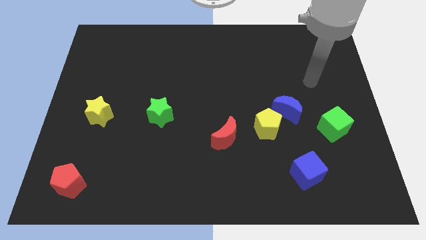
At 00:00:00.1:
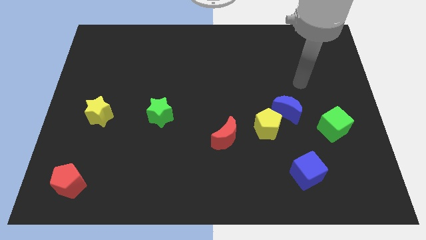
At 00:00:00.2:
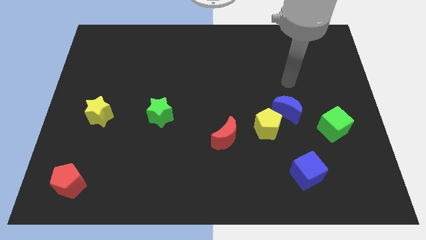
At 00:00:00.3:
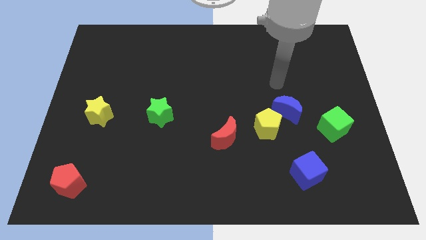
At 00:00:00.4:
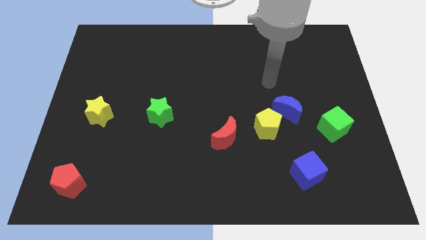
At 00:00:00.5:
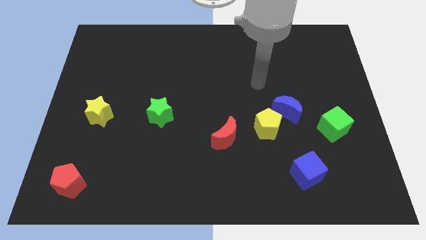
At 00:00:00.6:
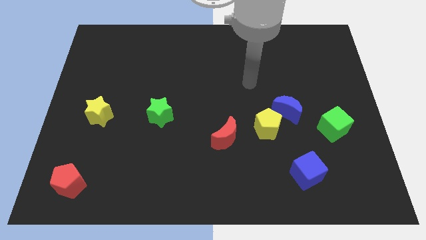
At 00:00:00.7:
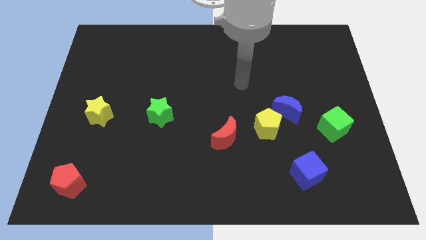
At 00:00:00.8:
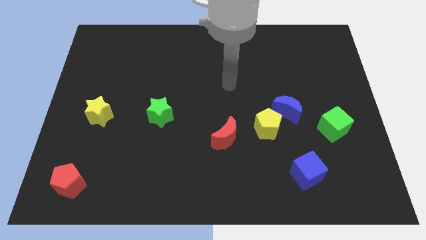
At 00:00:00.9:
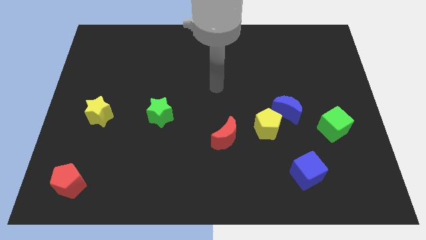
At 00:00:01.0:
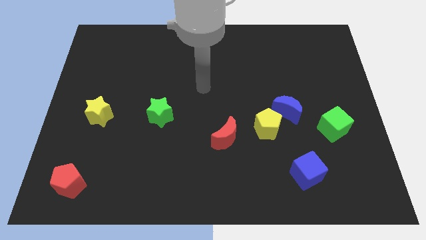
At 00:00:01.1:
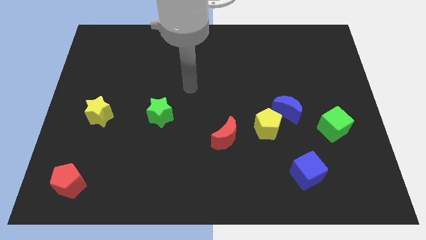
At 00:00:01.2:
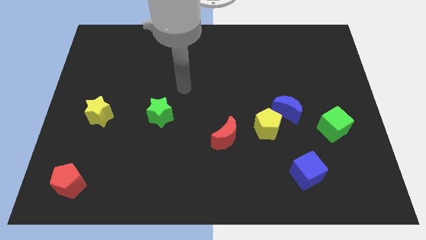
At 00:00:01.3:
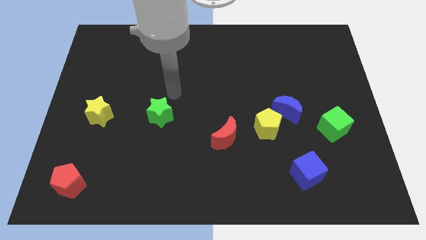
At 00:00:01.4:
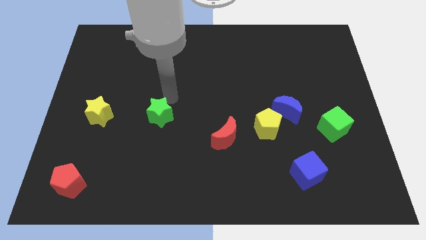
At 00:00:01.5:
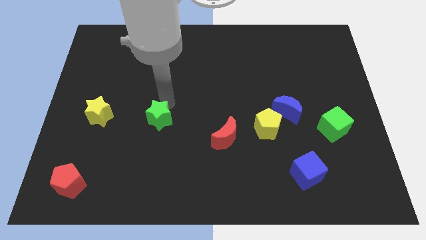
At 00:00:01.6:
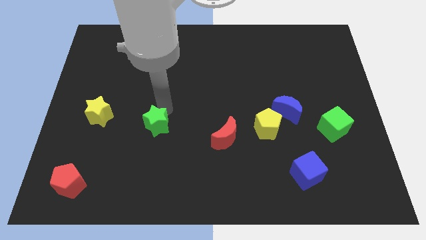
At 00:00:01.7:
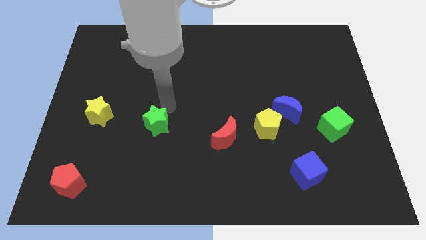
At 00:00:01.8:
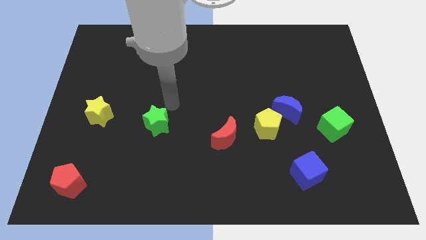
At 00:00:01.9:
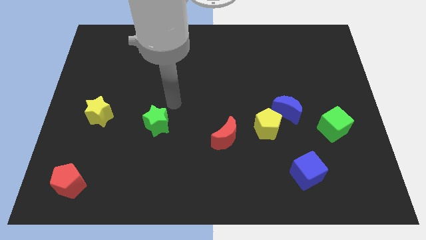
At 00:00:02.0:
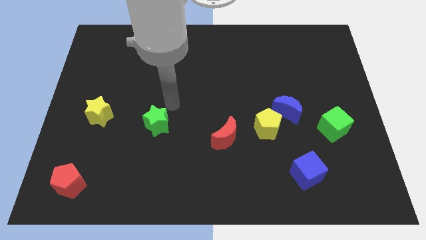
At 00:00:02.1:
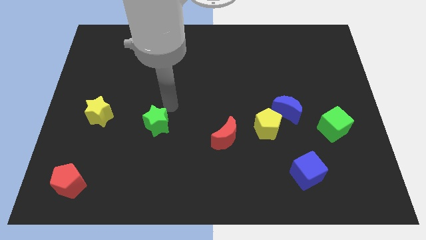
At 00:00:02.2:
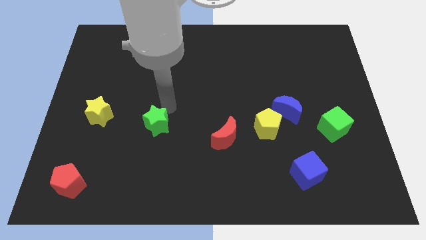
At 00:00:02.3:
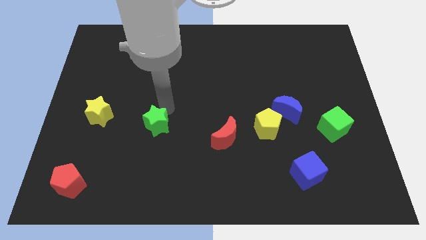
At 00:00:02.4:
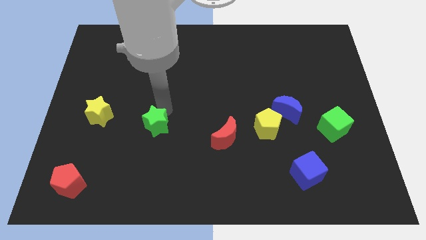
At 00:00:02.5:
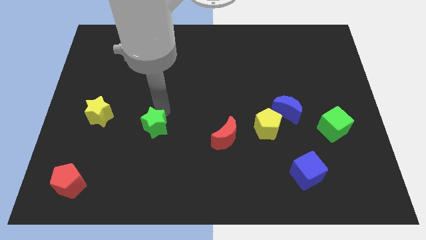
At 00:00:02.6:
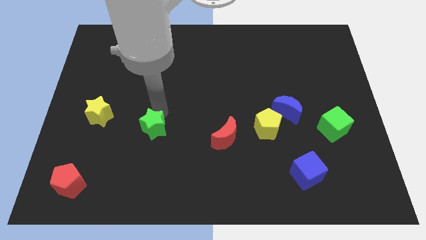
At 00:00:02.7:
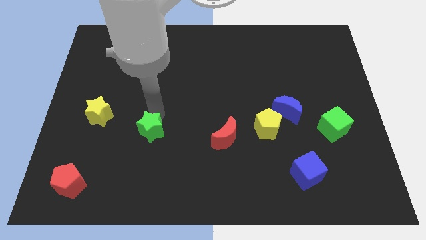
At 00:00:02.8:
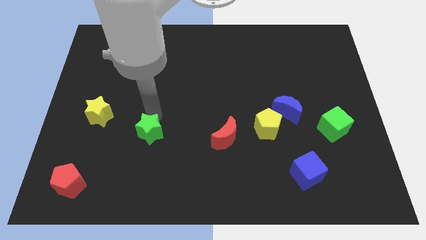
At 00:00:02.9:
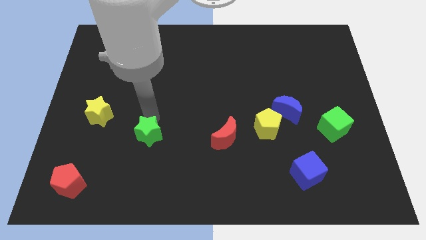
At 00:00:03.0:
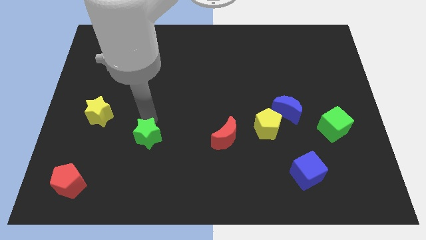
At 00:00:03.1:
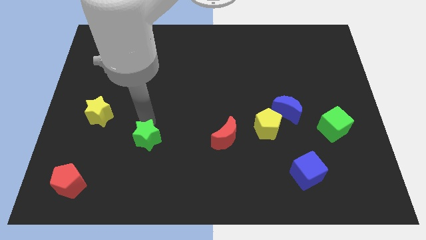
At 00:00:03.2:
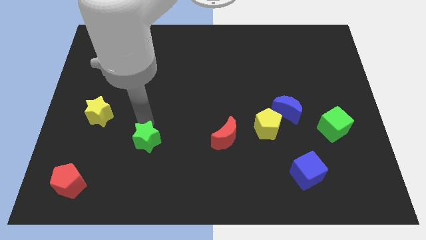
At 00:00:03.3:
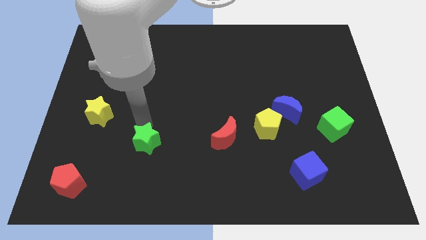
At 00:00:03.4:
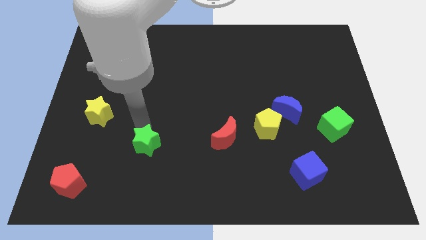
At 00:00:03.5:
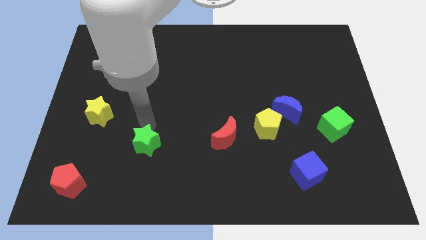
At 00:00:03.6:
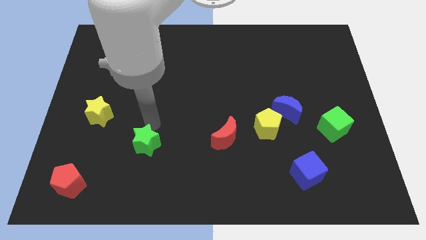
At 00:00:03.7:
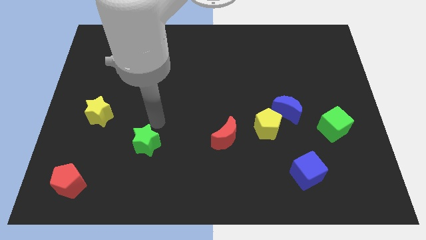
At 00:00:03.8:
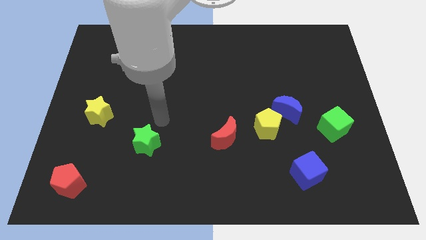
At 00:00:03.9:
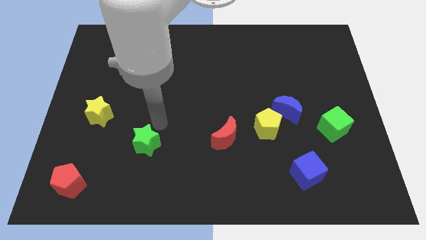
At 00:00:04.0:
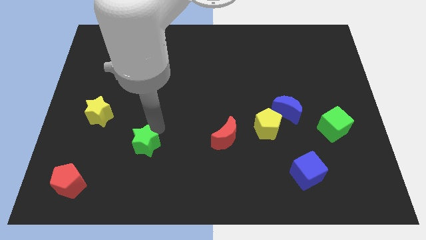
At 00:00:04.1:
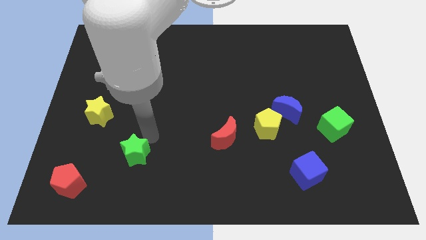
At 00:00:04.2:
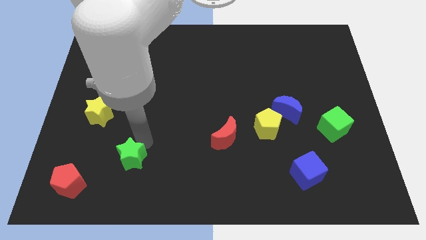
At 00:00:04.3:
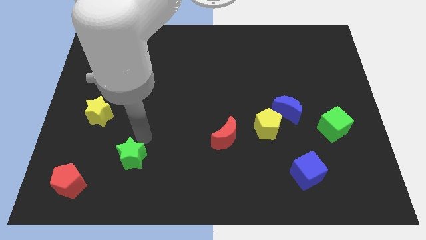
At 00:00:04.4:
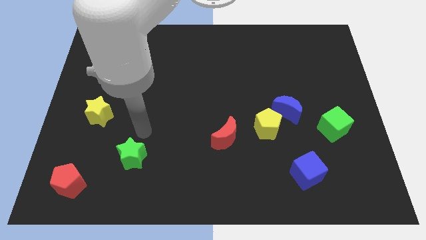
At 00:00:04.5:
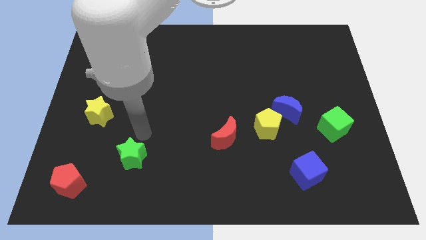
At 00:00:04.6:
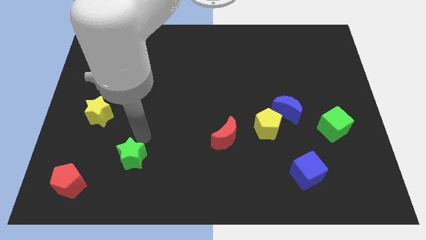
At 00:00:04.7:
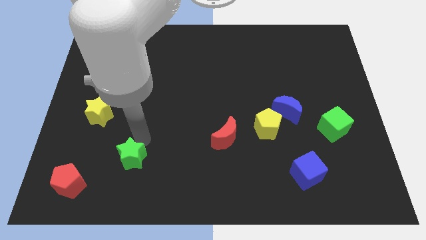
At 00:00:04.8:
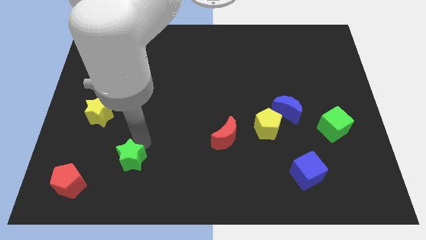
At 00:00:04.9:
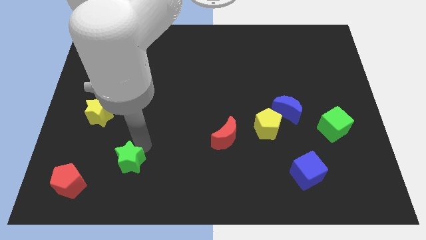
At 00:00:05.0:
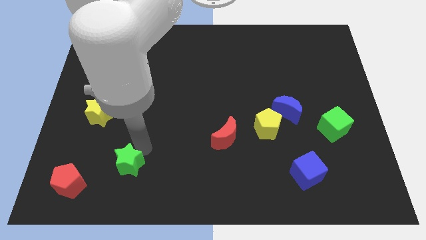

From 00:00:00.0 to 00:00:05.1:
move the green star right of the red pentagon

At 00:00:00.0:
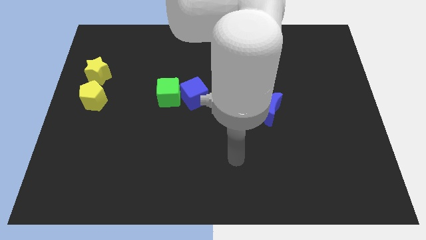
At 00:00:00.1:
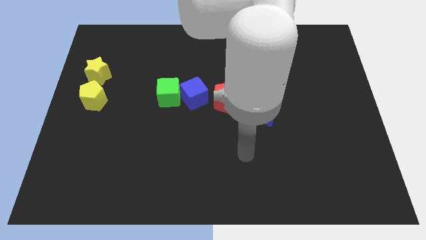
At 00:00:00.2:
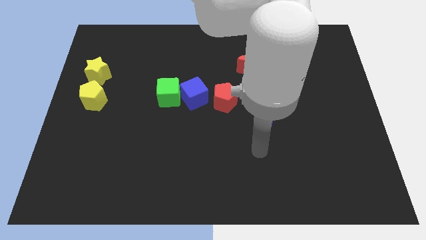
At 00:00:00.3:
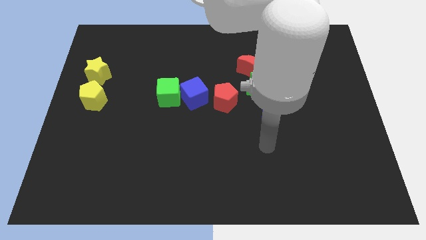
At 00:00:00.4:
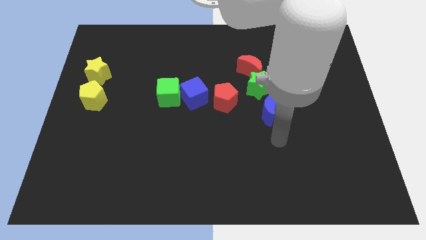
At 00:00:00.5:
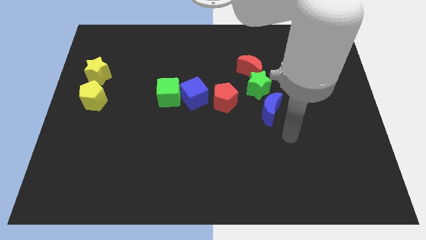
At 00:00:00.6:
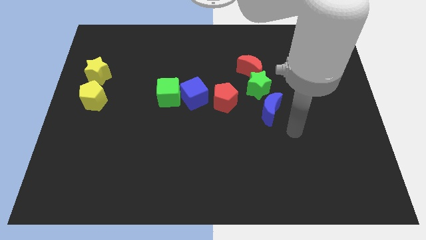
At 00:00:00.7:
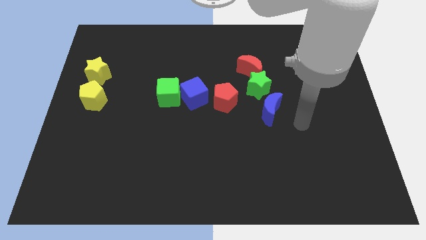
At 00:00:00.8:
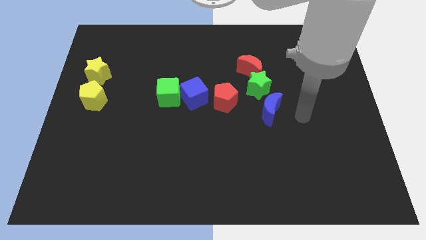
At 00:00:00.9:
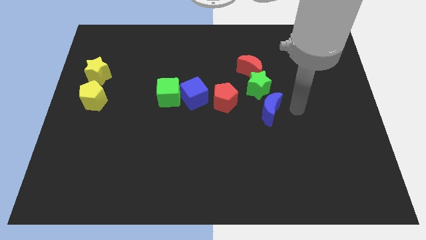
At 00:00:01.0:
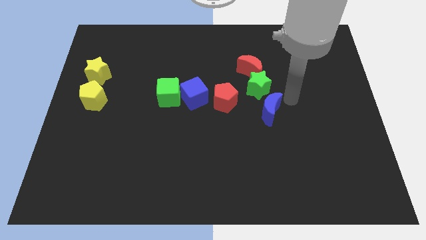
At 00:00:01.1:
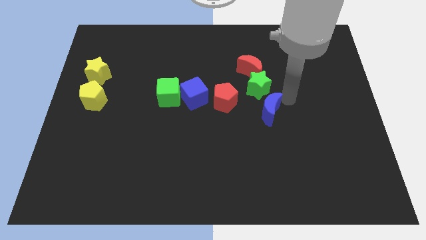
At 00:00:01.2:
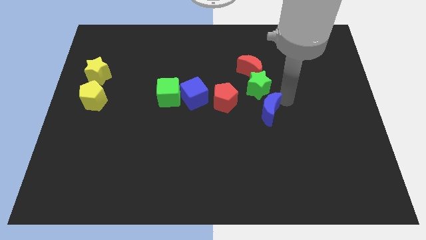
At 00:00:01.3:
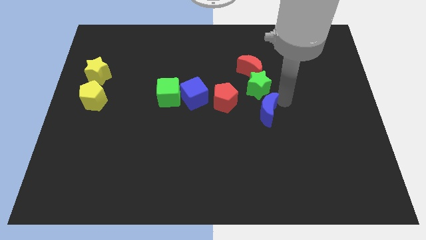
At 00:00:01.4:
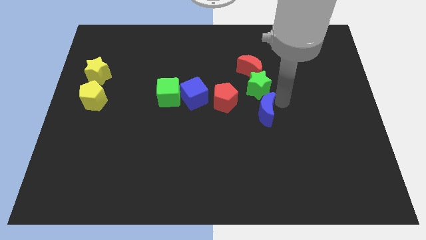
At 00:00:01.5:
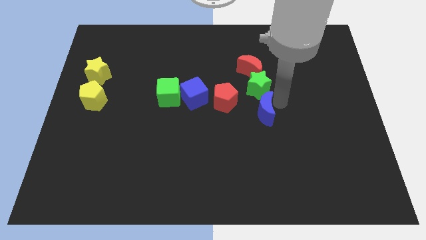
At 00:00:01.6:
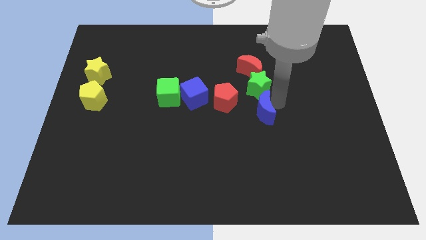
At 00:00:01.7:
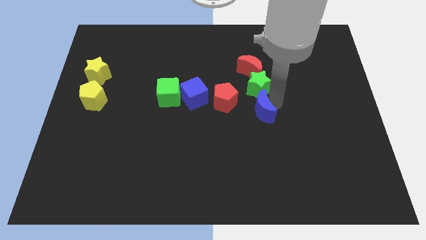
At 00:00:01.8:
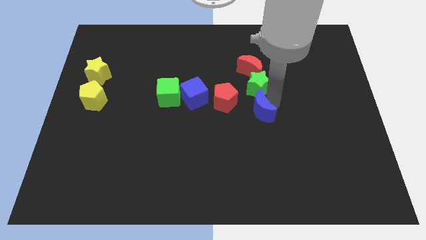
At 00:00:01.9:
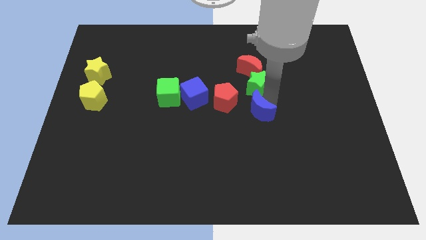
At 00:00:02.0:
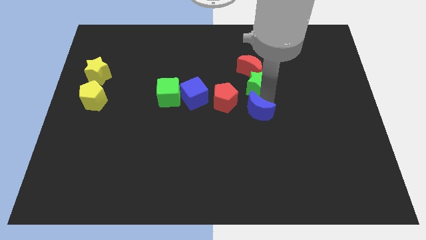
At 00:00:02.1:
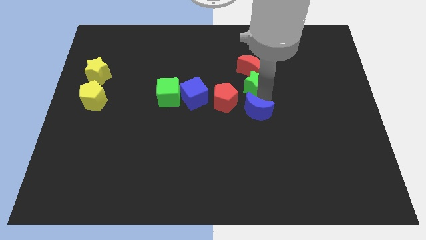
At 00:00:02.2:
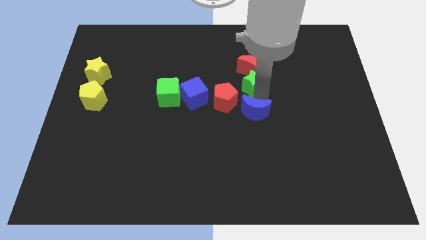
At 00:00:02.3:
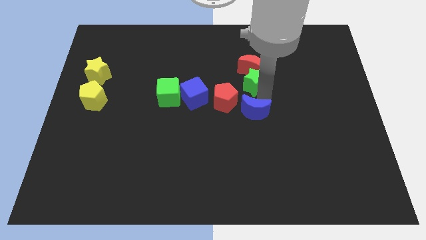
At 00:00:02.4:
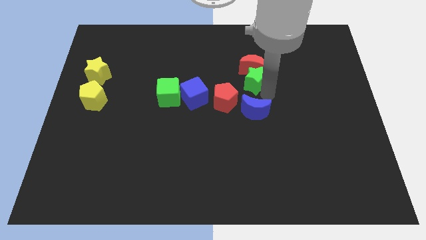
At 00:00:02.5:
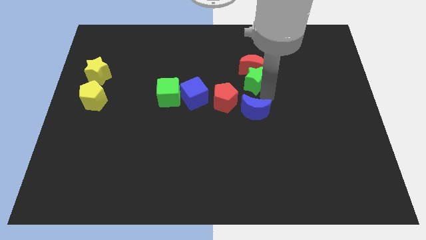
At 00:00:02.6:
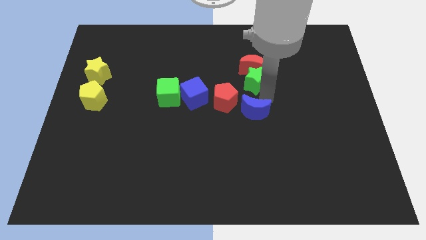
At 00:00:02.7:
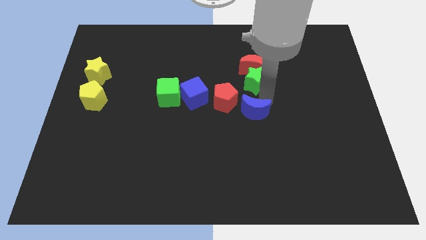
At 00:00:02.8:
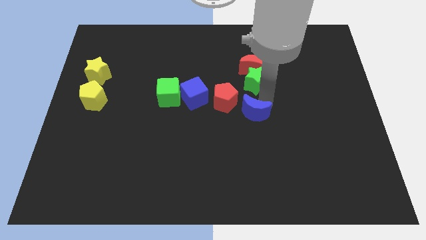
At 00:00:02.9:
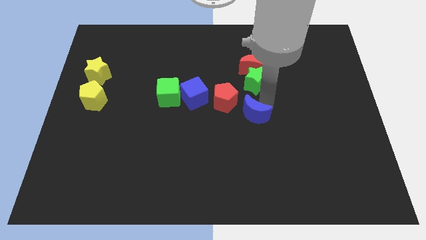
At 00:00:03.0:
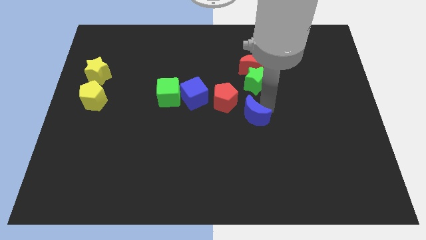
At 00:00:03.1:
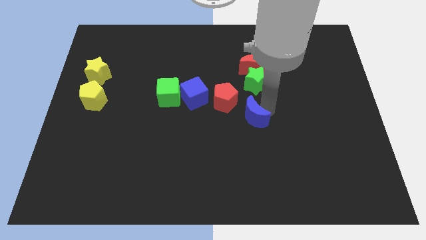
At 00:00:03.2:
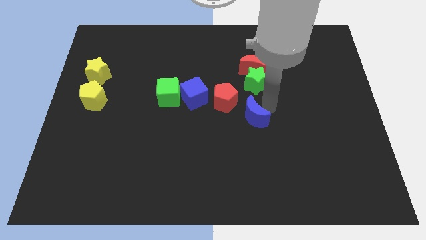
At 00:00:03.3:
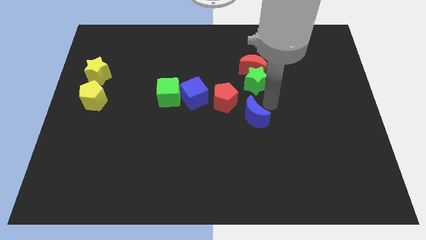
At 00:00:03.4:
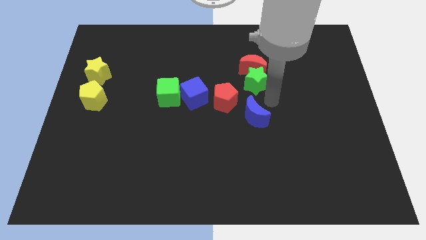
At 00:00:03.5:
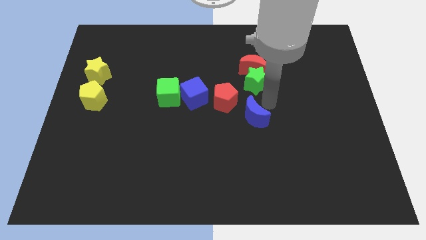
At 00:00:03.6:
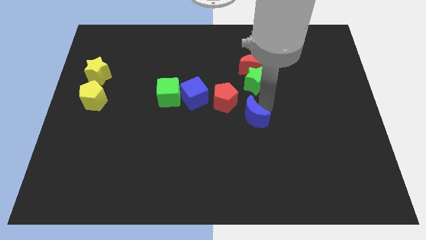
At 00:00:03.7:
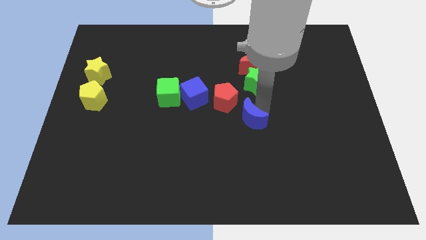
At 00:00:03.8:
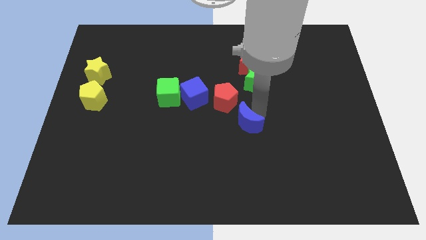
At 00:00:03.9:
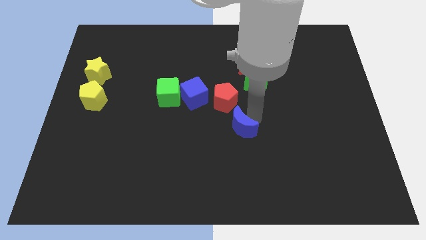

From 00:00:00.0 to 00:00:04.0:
put the blue moon below the red pentagon
